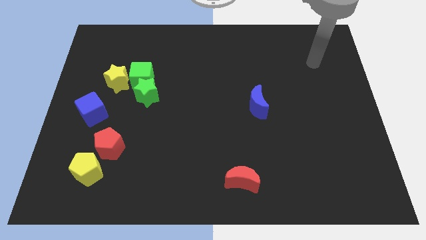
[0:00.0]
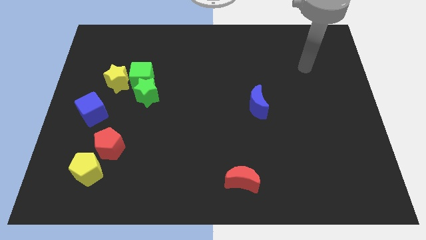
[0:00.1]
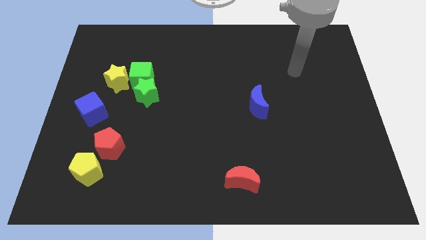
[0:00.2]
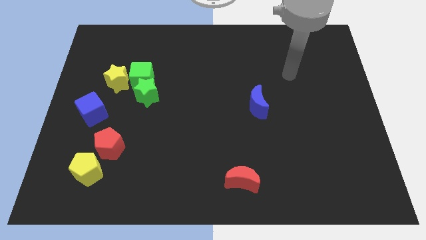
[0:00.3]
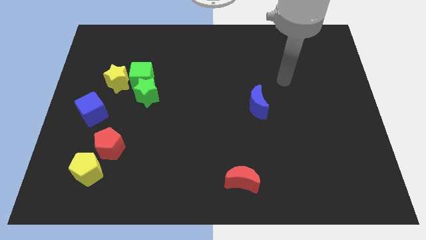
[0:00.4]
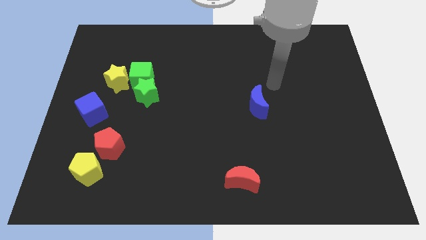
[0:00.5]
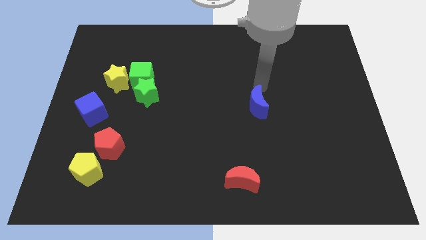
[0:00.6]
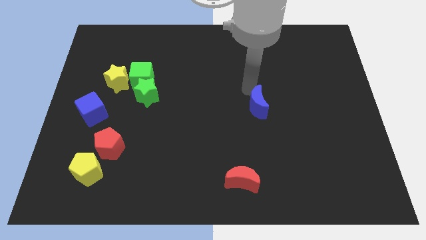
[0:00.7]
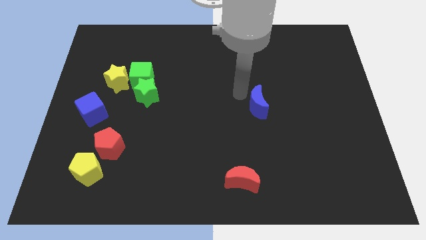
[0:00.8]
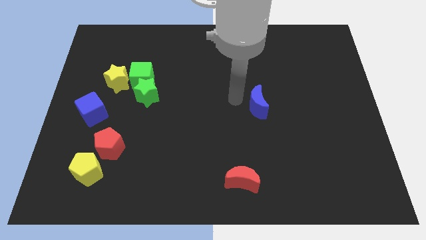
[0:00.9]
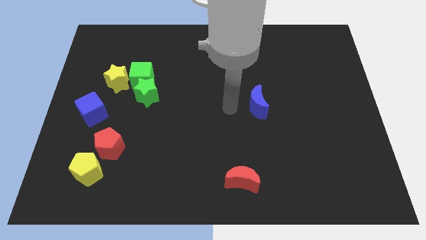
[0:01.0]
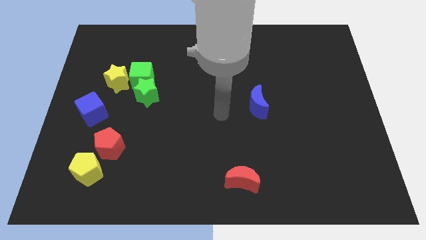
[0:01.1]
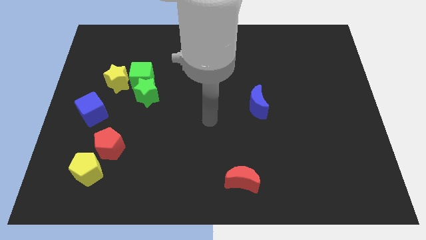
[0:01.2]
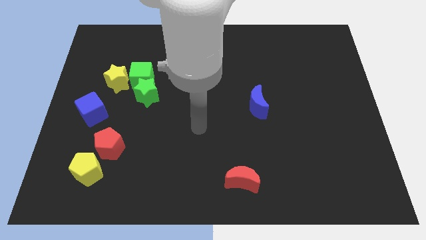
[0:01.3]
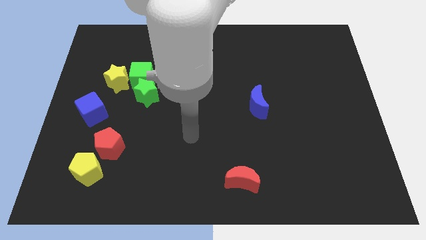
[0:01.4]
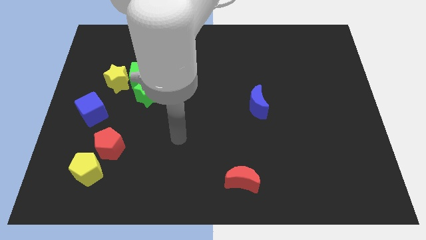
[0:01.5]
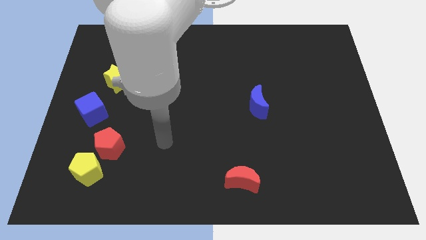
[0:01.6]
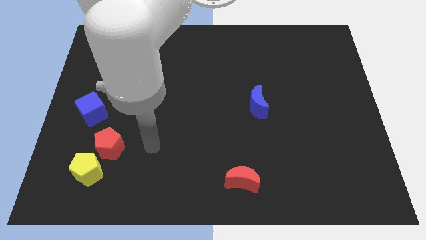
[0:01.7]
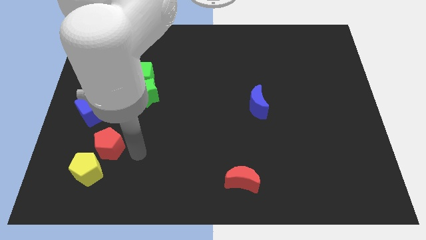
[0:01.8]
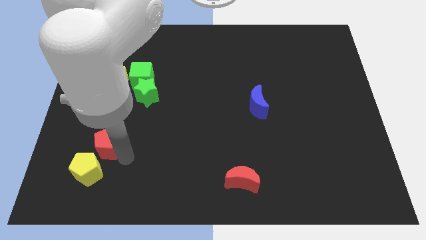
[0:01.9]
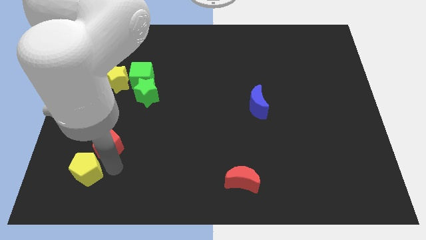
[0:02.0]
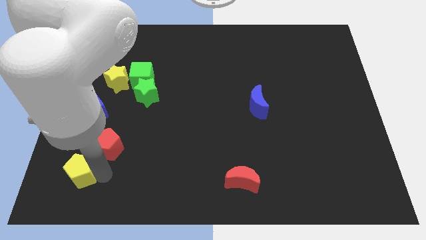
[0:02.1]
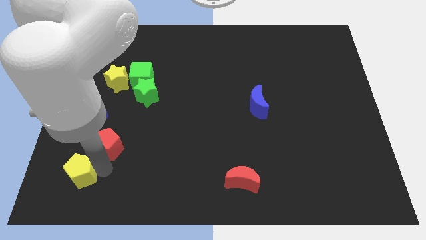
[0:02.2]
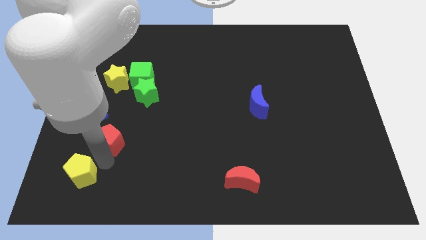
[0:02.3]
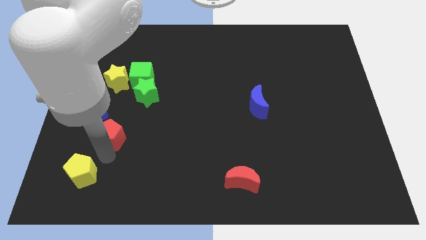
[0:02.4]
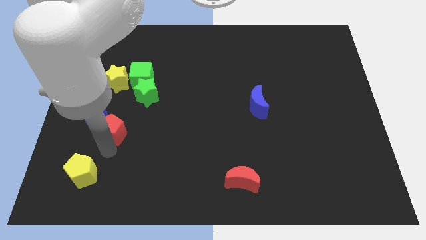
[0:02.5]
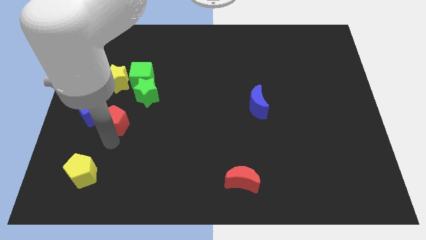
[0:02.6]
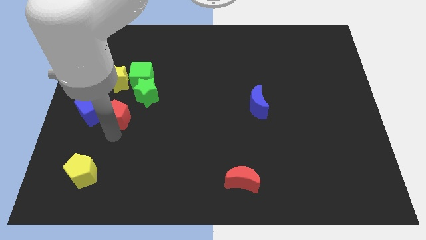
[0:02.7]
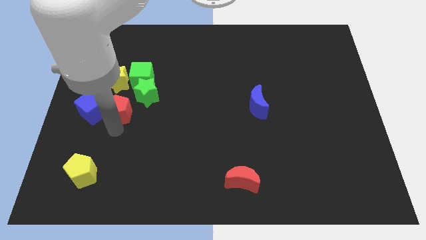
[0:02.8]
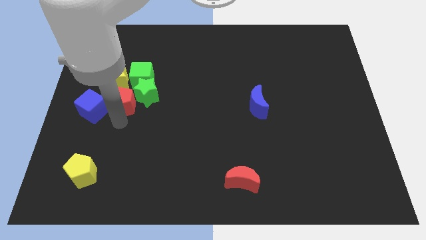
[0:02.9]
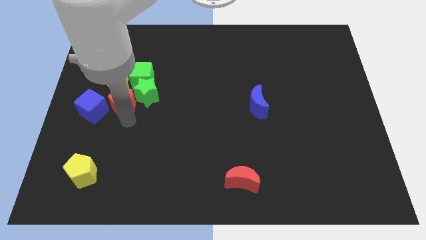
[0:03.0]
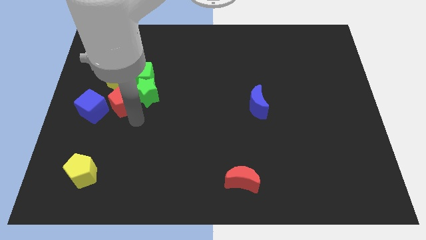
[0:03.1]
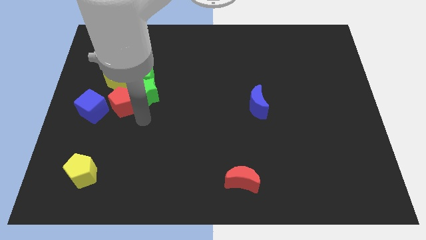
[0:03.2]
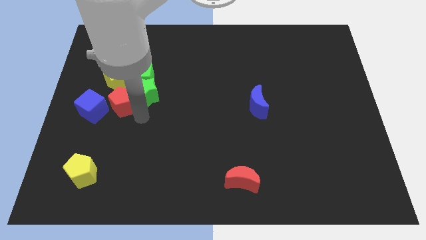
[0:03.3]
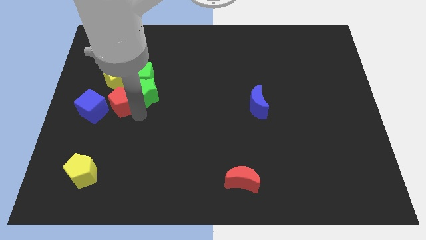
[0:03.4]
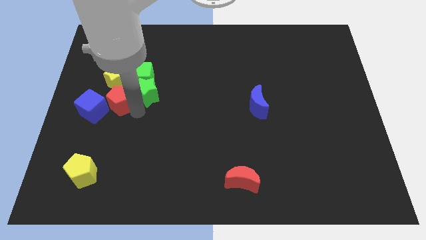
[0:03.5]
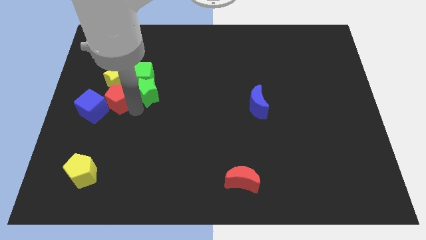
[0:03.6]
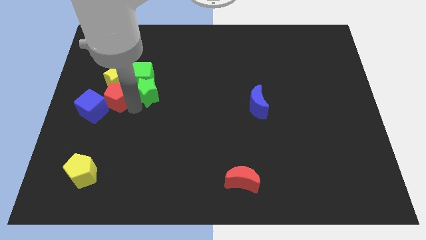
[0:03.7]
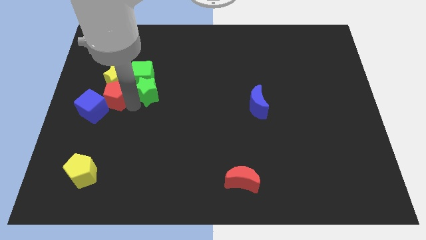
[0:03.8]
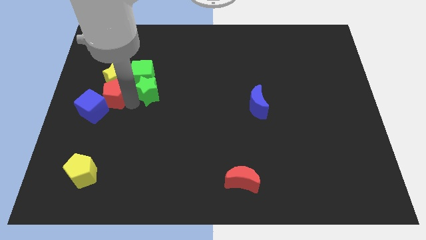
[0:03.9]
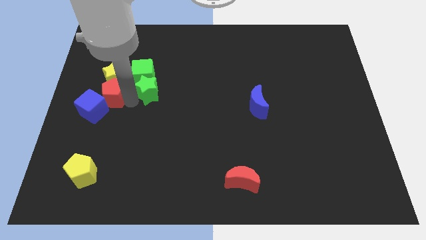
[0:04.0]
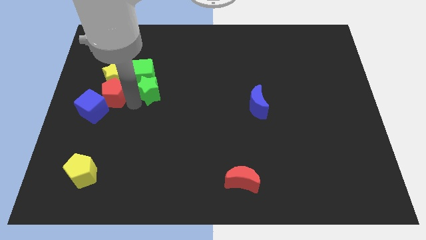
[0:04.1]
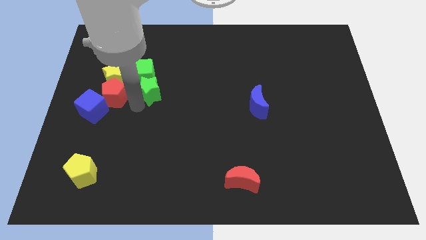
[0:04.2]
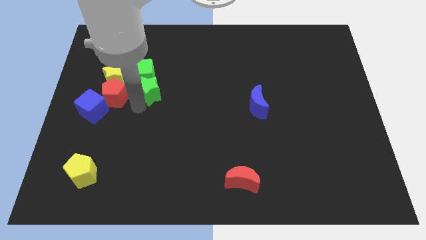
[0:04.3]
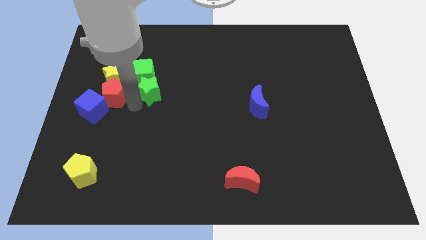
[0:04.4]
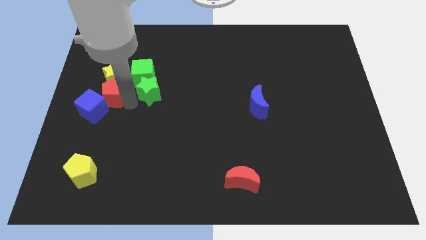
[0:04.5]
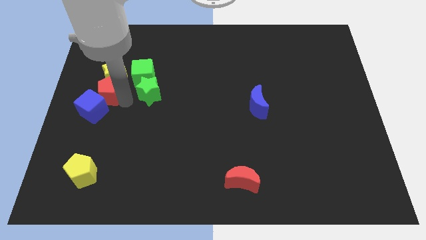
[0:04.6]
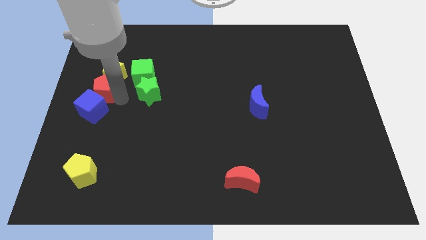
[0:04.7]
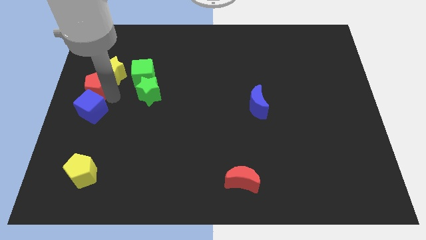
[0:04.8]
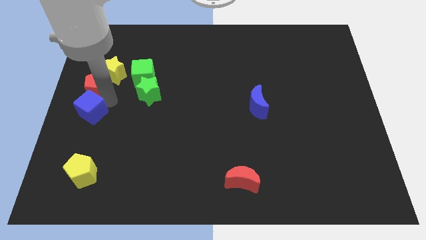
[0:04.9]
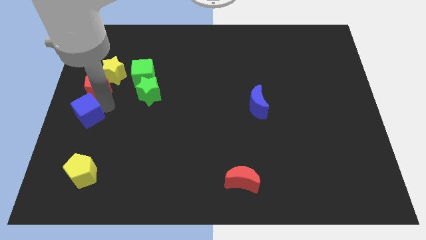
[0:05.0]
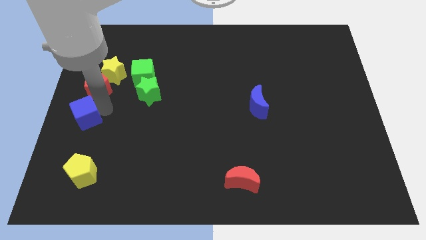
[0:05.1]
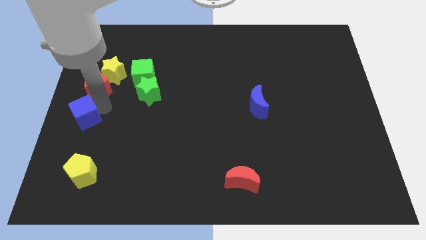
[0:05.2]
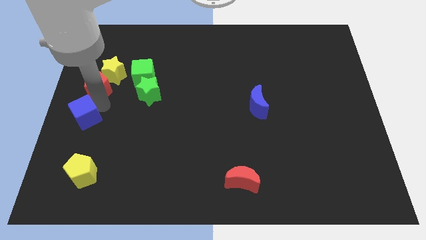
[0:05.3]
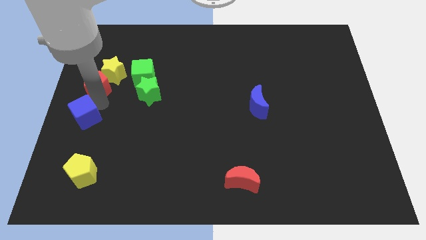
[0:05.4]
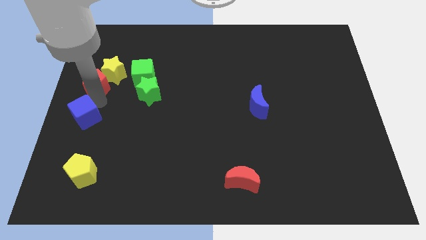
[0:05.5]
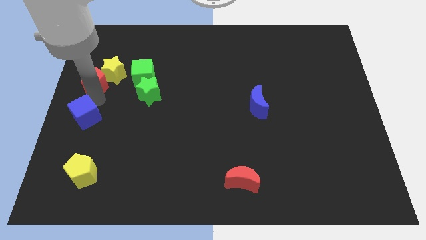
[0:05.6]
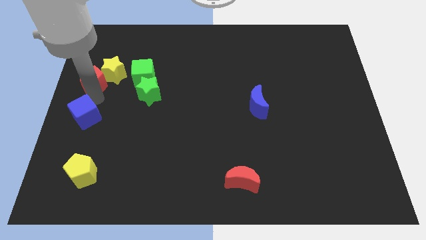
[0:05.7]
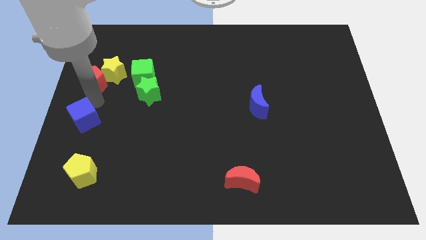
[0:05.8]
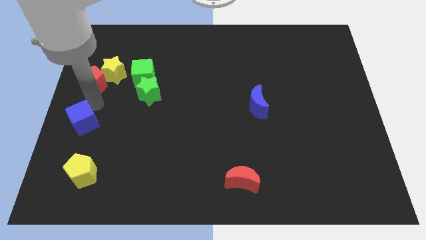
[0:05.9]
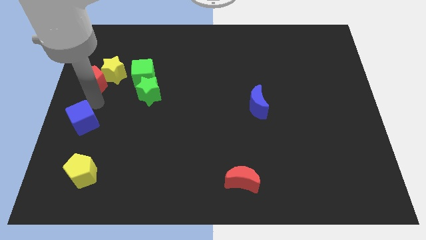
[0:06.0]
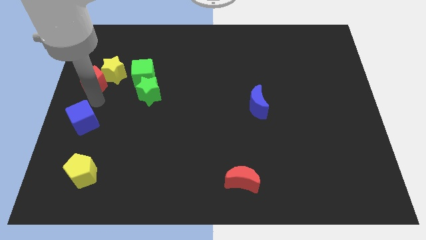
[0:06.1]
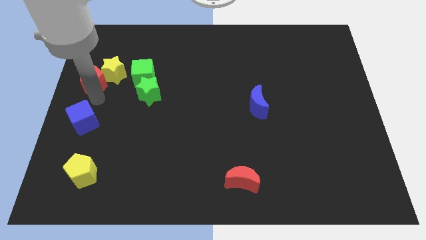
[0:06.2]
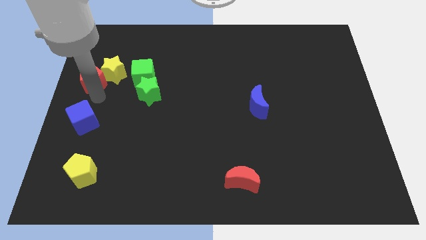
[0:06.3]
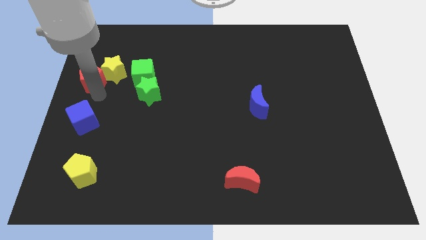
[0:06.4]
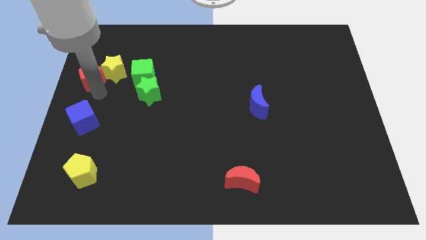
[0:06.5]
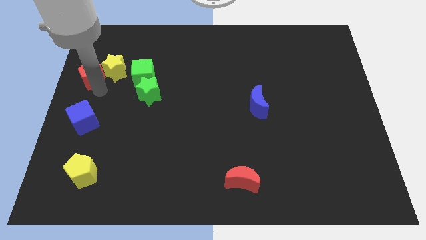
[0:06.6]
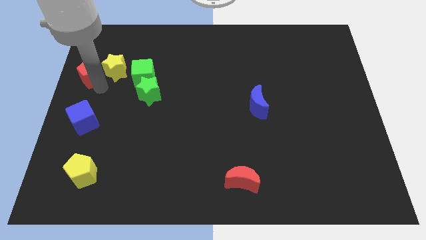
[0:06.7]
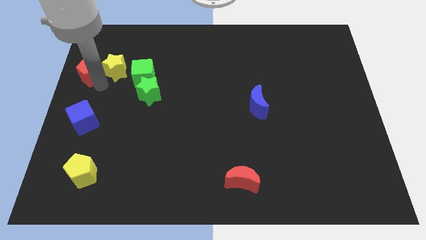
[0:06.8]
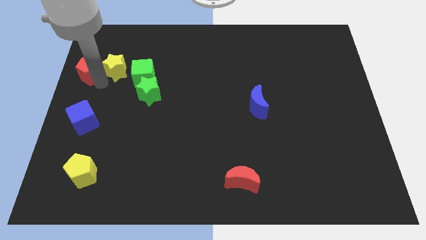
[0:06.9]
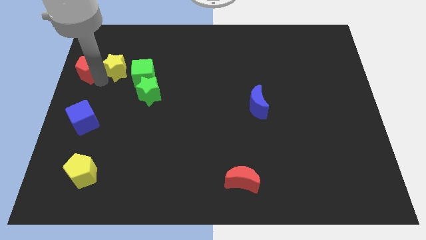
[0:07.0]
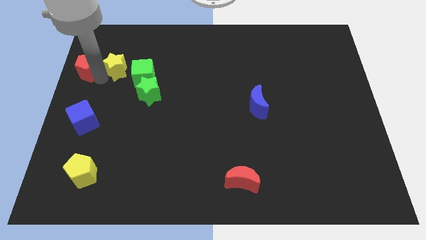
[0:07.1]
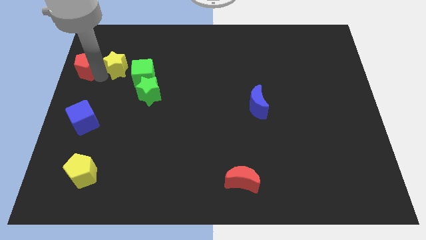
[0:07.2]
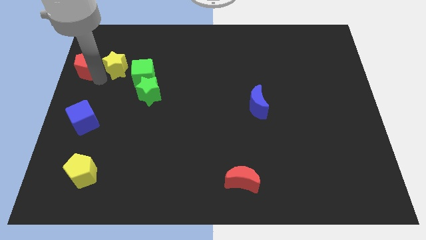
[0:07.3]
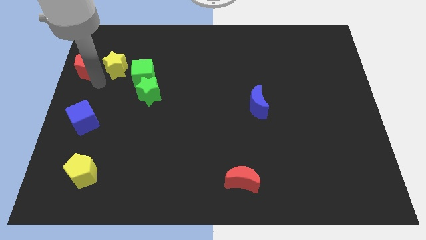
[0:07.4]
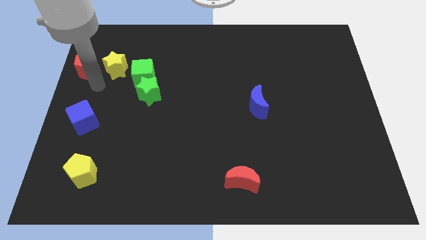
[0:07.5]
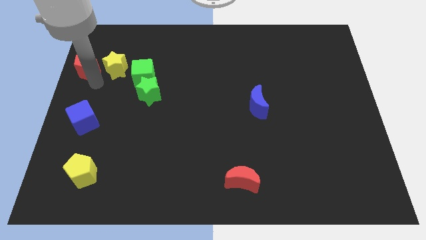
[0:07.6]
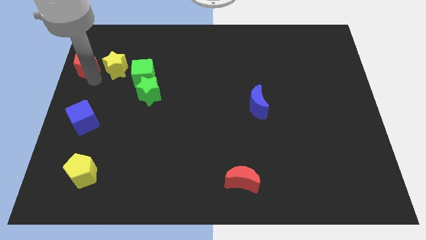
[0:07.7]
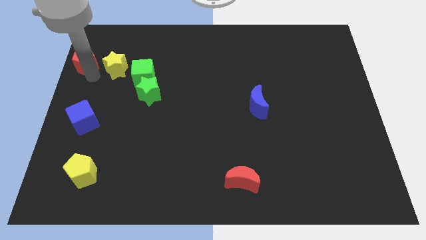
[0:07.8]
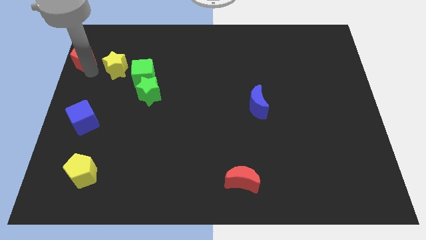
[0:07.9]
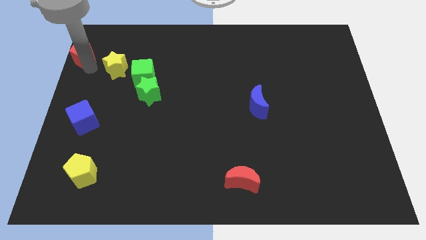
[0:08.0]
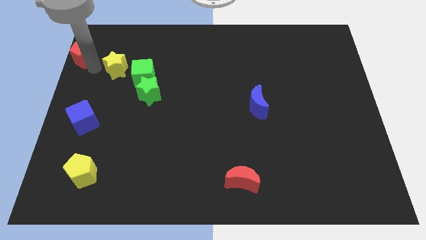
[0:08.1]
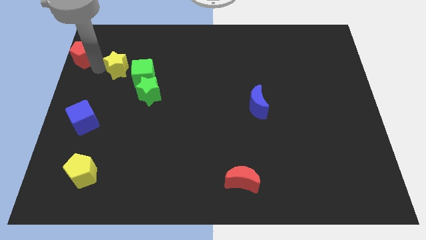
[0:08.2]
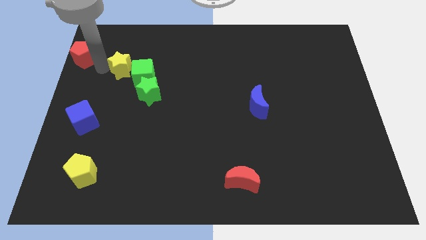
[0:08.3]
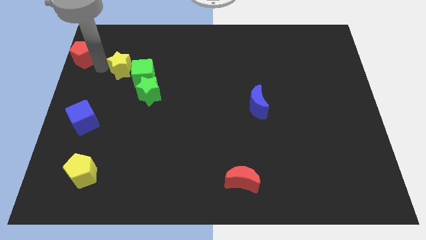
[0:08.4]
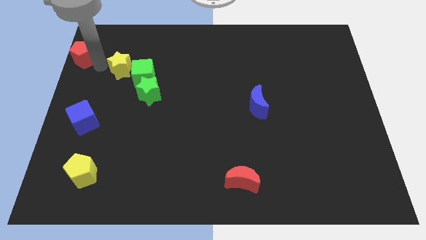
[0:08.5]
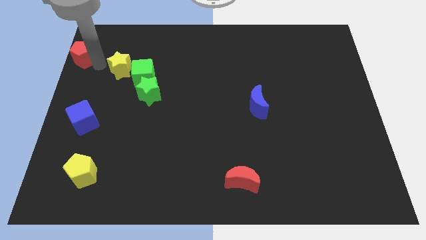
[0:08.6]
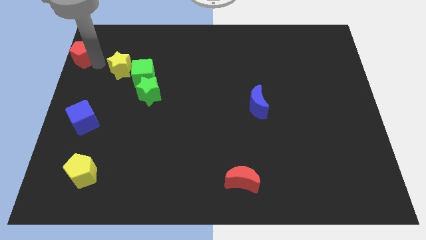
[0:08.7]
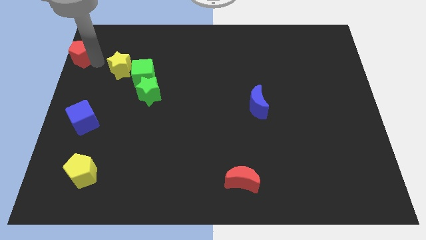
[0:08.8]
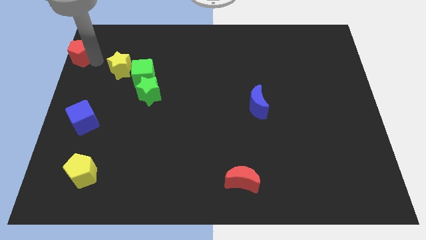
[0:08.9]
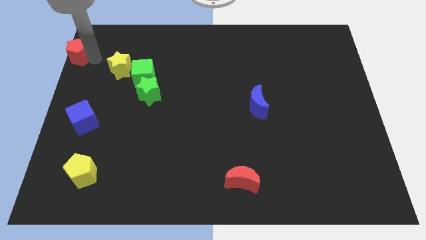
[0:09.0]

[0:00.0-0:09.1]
put the red pentagon to the top left corner
